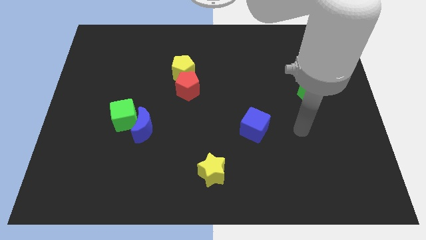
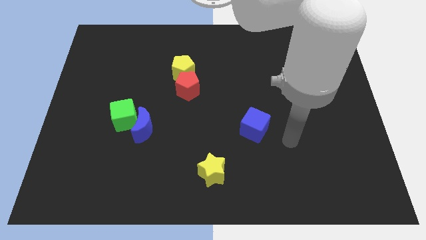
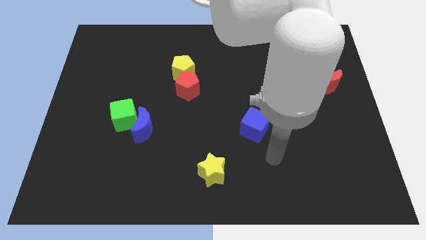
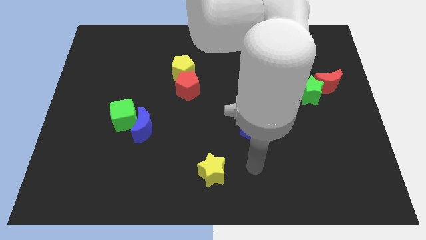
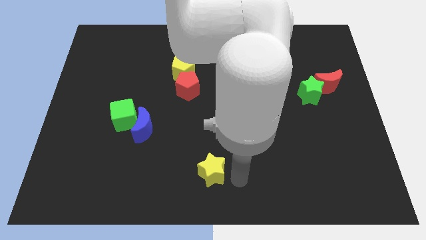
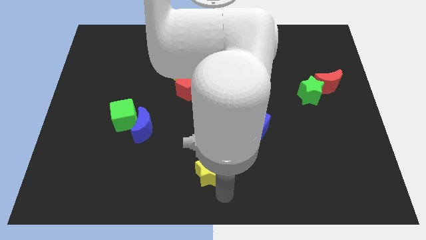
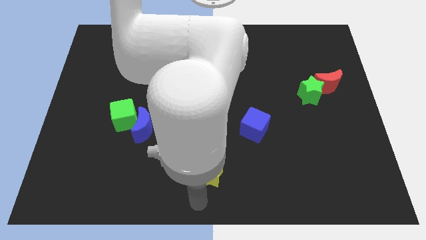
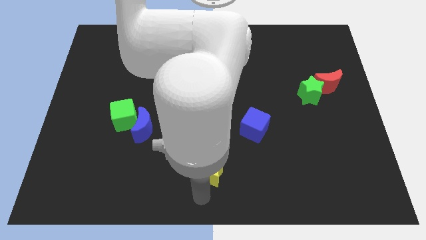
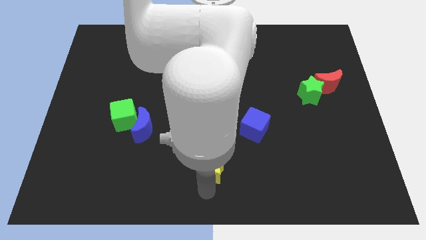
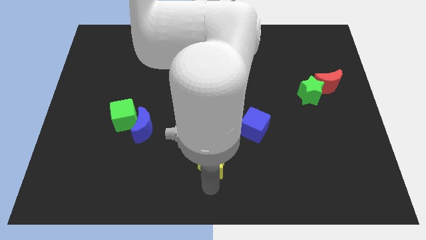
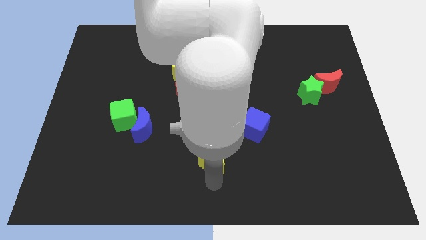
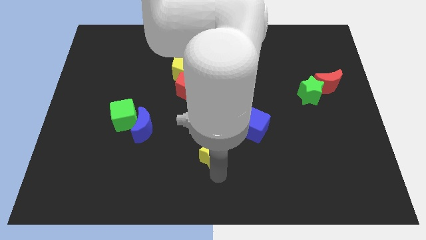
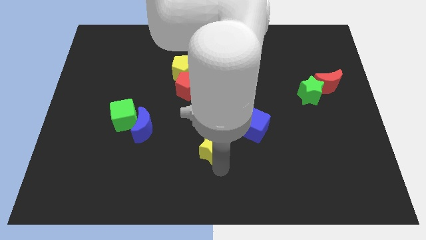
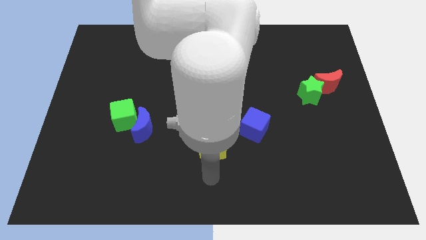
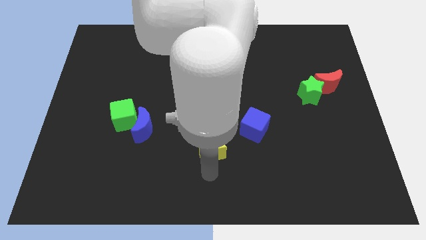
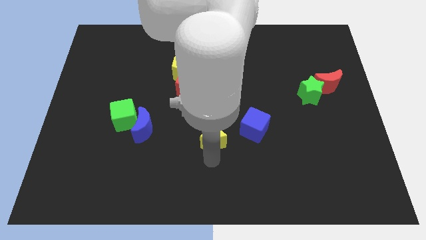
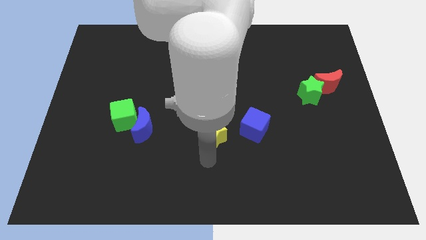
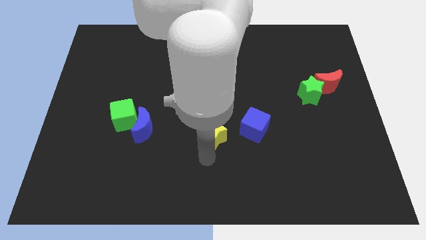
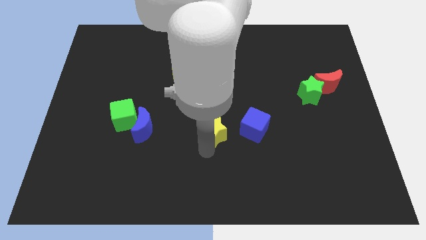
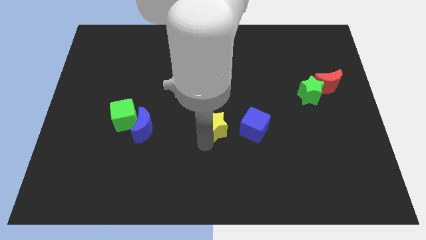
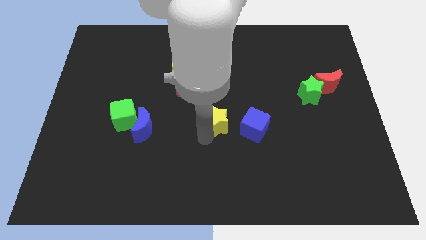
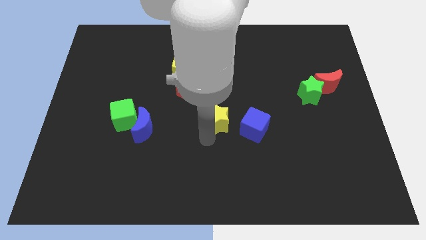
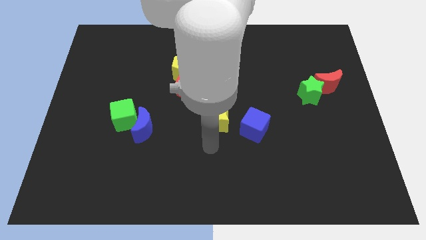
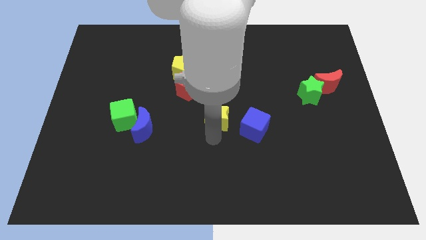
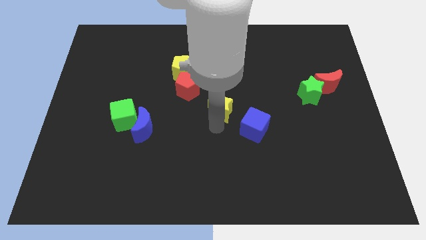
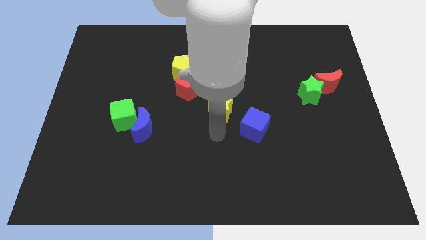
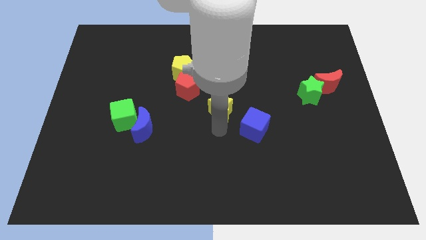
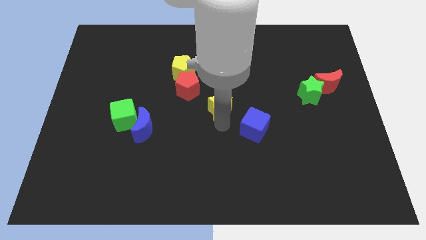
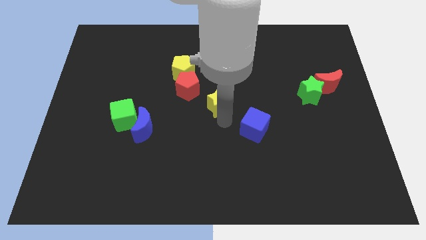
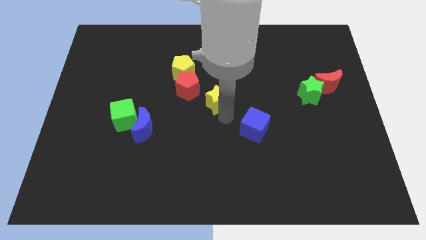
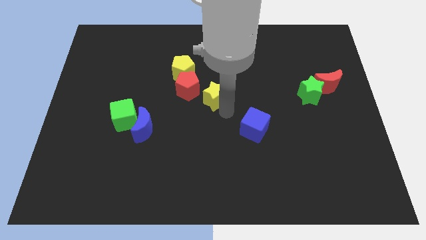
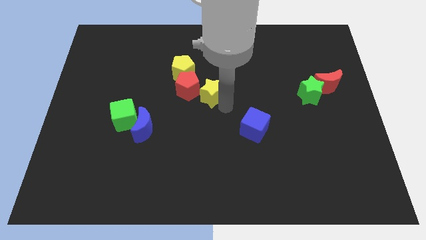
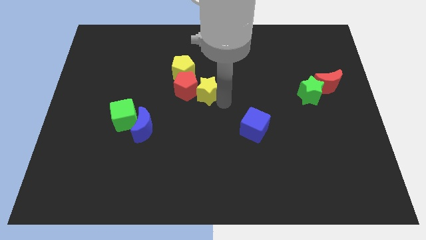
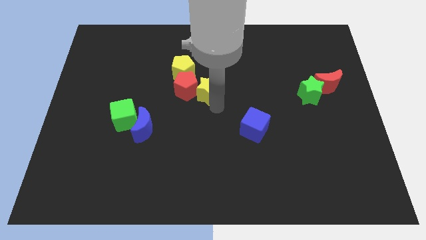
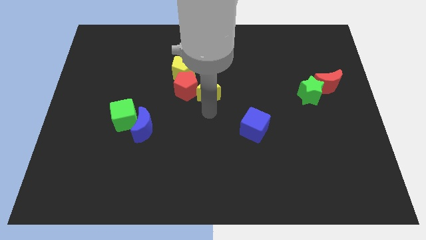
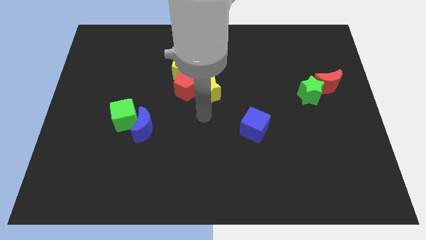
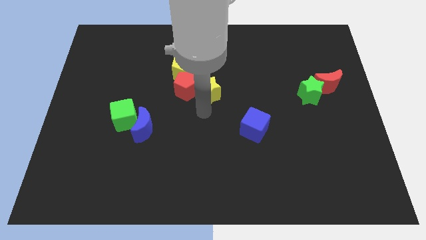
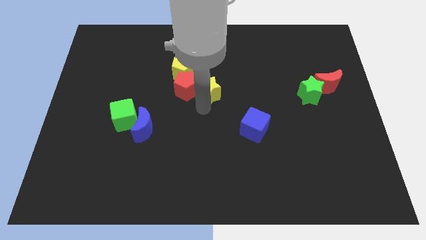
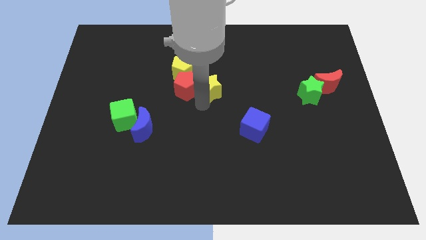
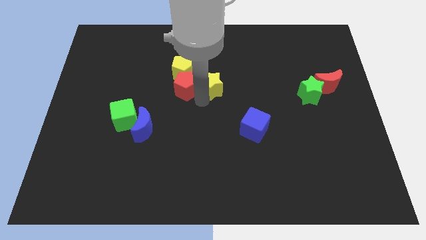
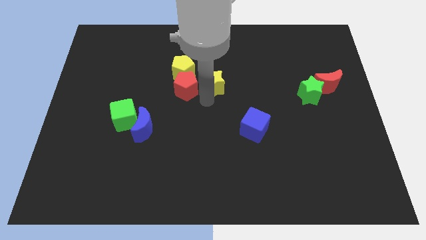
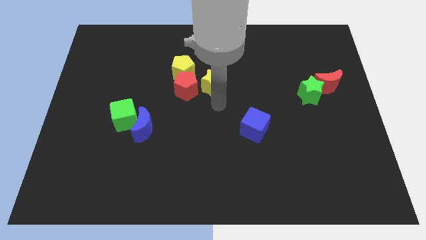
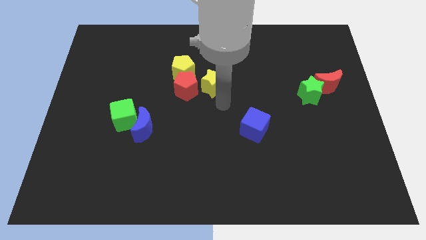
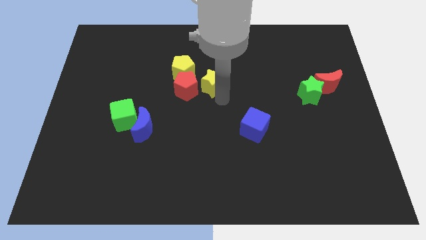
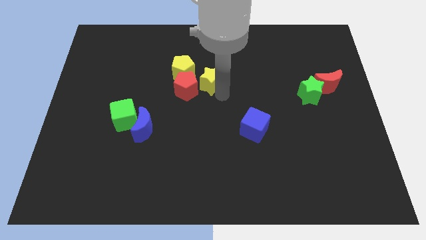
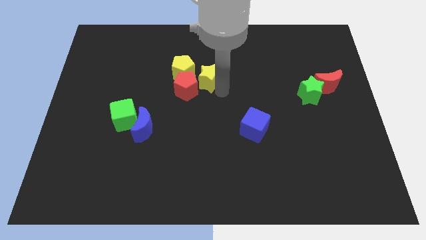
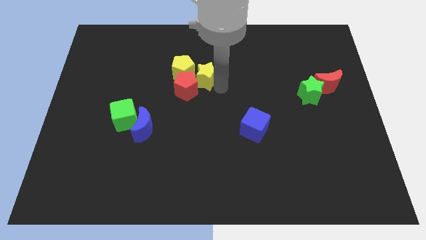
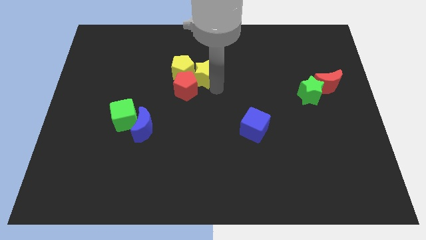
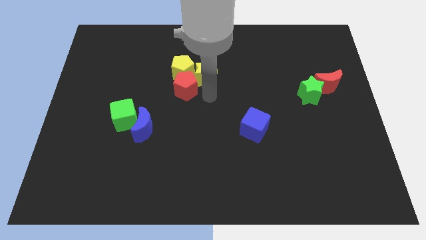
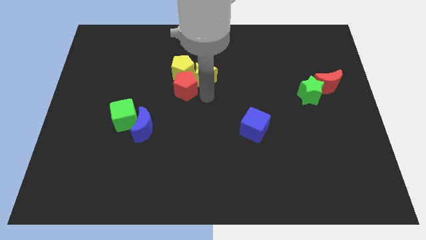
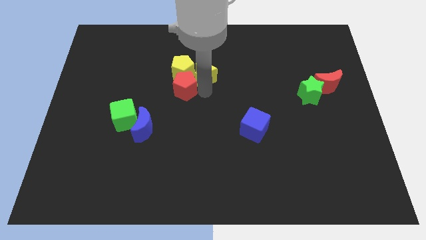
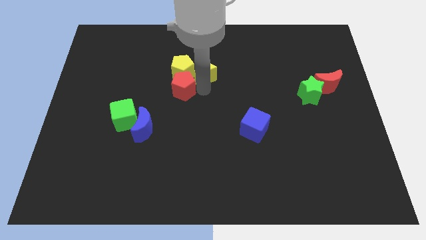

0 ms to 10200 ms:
put the yellow star to the top right of the yellow pentagon

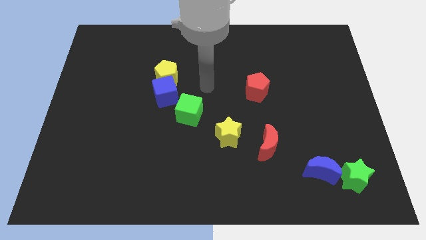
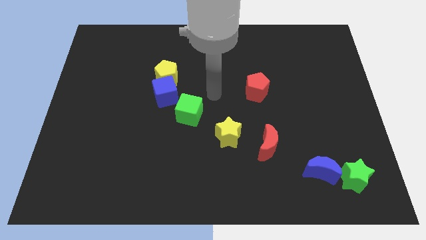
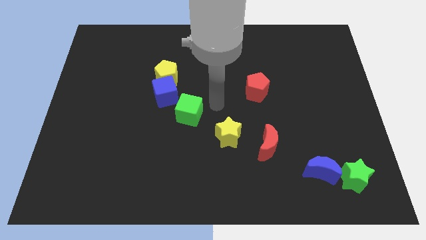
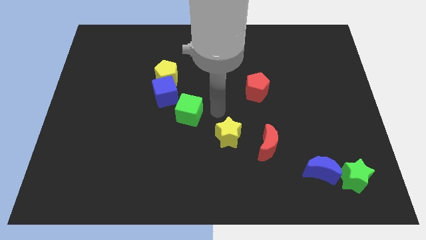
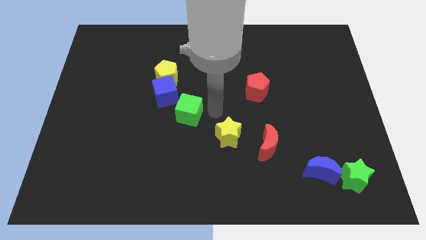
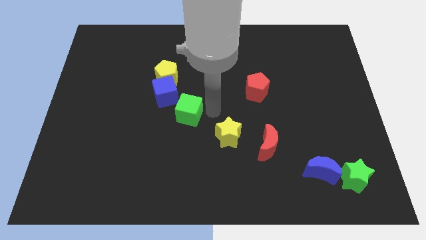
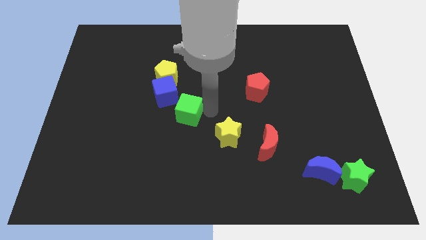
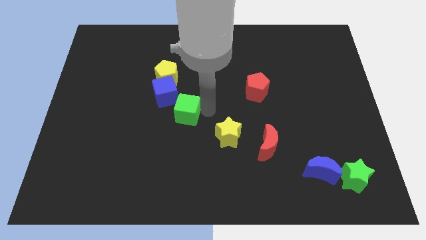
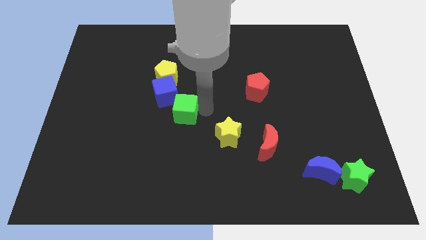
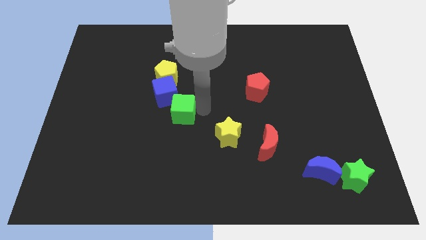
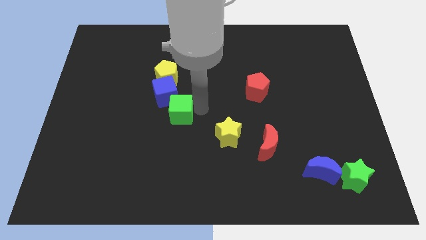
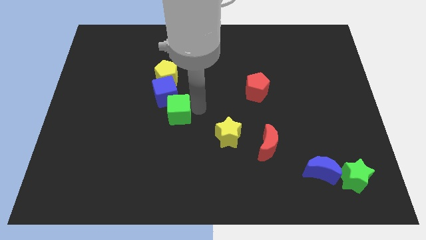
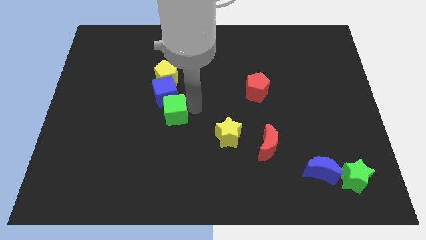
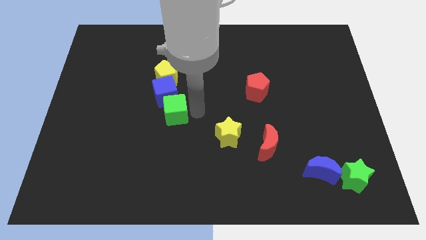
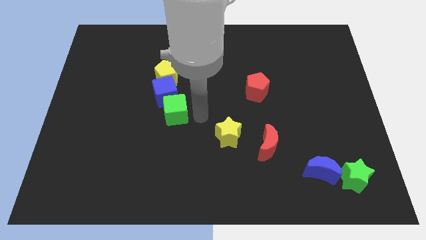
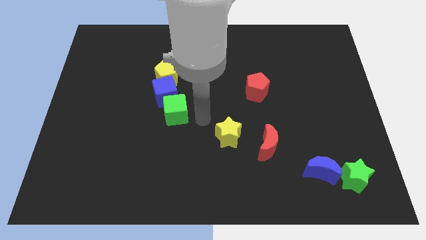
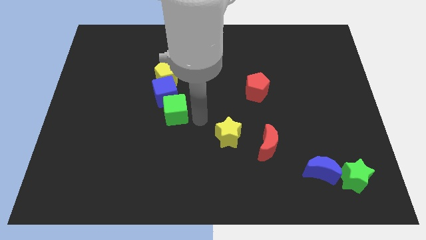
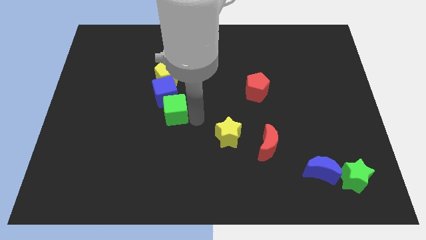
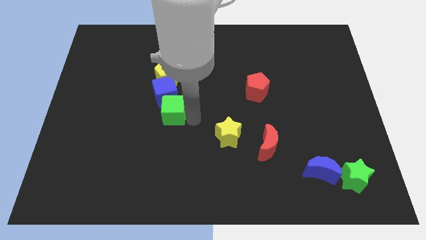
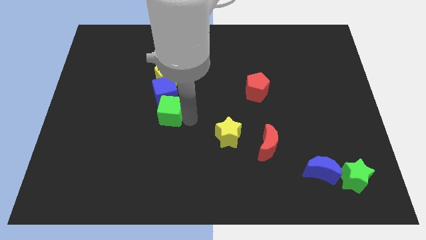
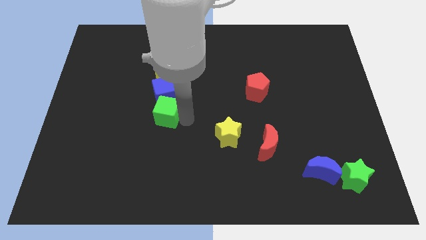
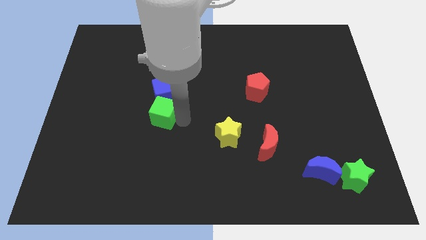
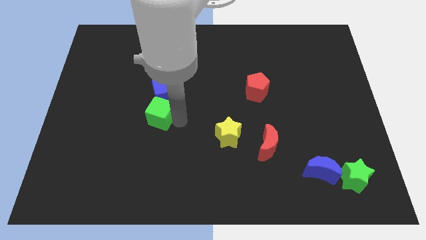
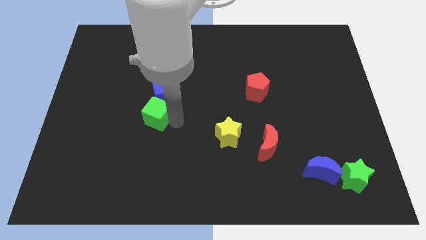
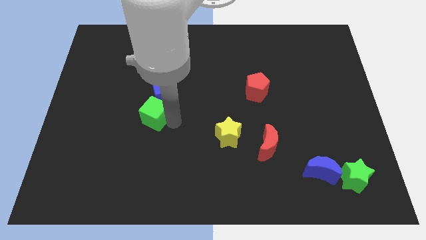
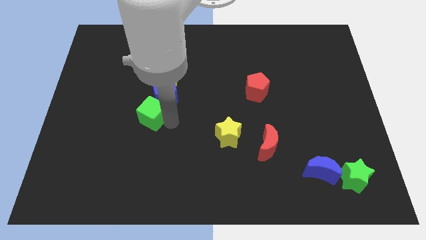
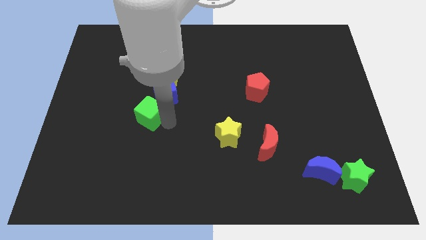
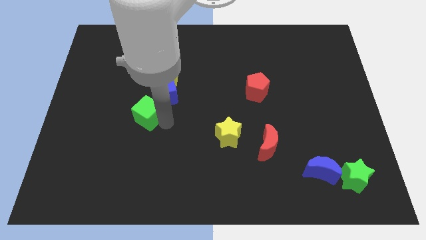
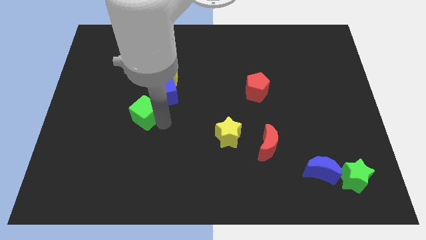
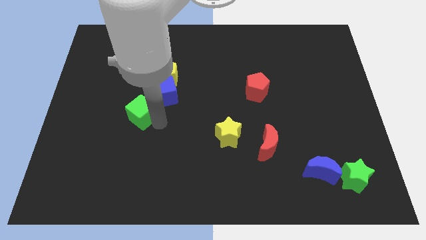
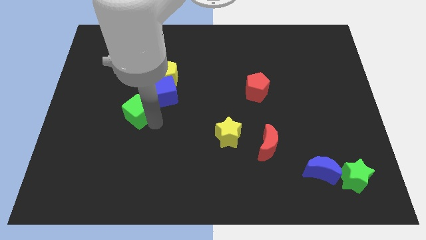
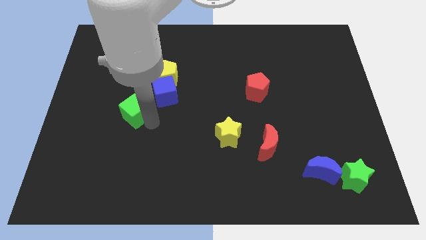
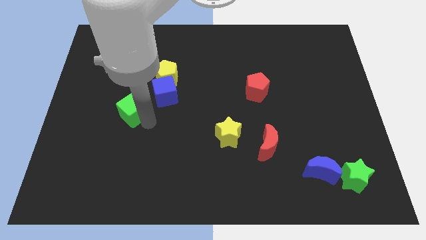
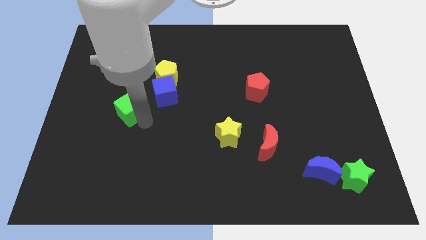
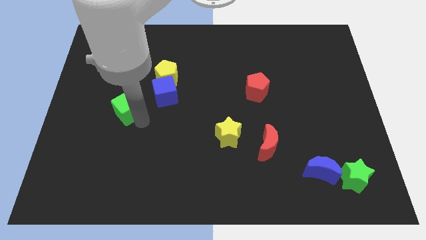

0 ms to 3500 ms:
put the green cube left of the blue cube
